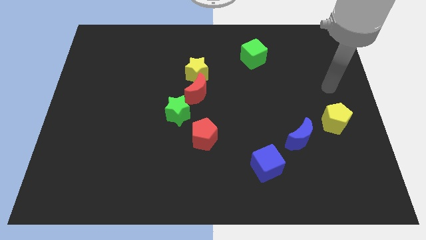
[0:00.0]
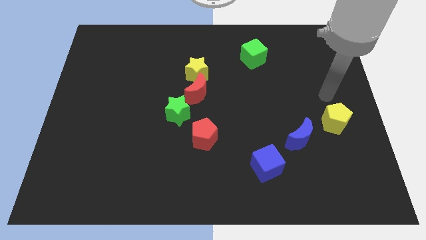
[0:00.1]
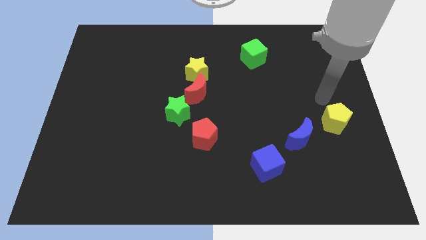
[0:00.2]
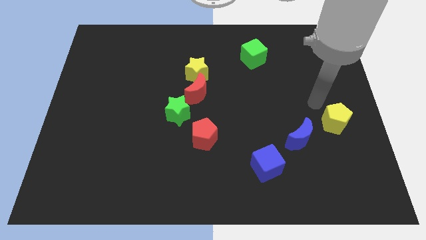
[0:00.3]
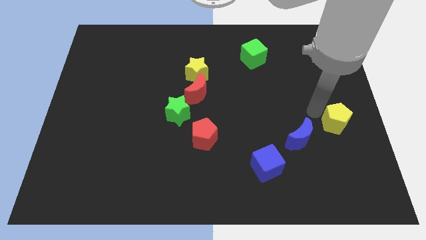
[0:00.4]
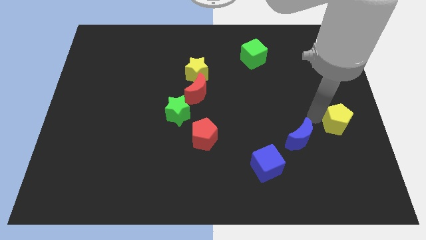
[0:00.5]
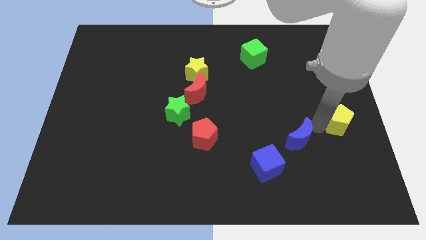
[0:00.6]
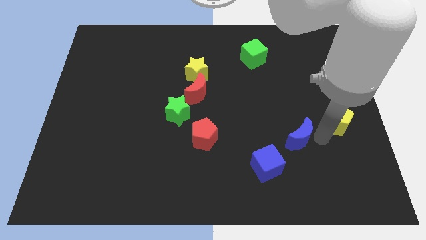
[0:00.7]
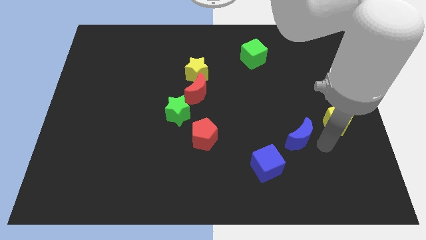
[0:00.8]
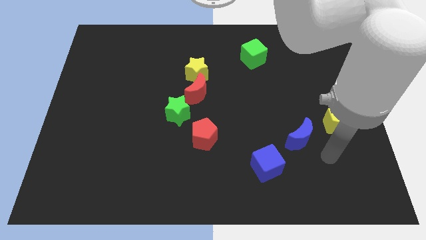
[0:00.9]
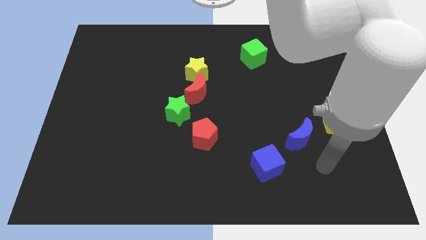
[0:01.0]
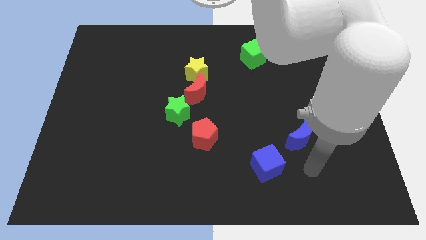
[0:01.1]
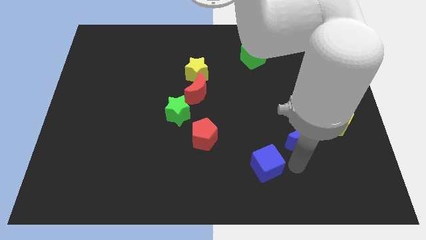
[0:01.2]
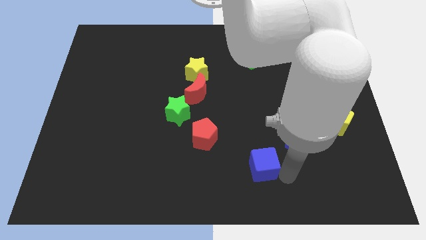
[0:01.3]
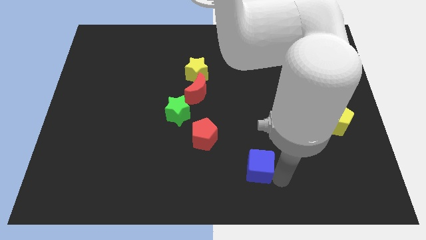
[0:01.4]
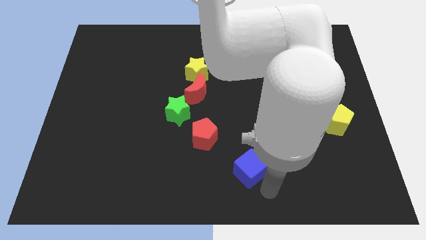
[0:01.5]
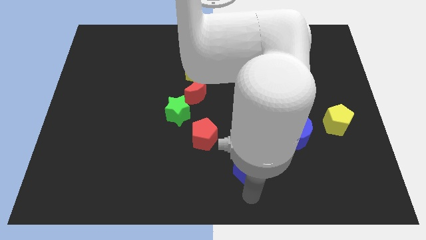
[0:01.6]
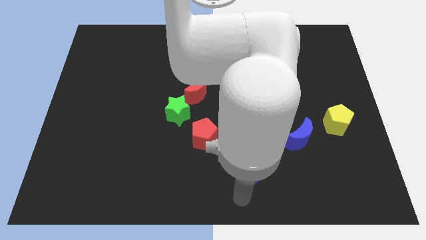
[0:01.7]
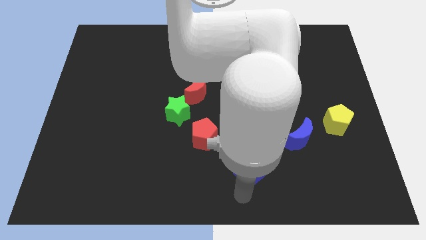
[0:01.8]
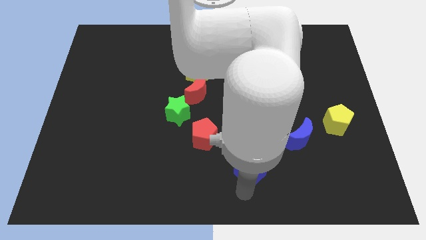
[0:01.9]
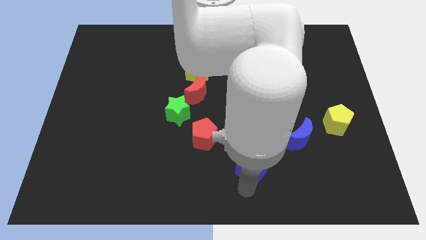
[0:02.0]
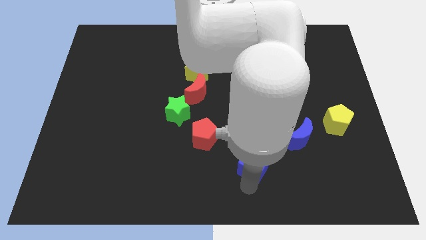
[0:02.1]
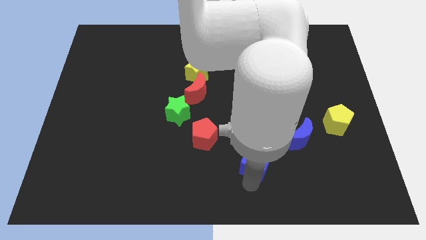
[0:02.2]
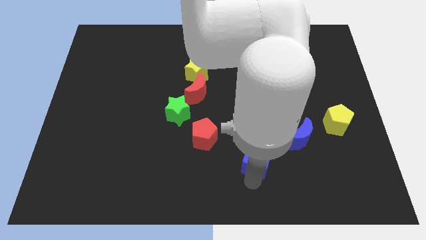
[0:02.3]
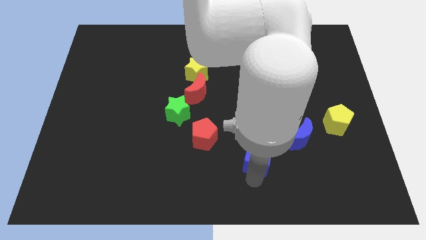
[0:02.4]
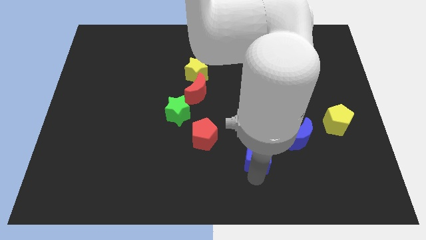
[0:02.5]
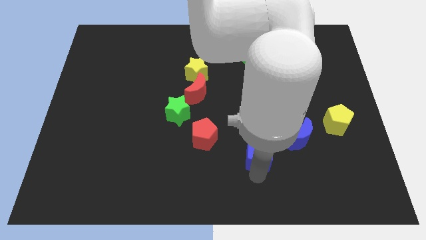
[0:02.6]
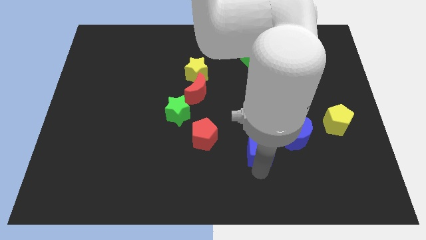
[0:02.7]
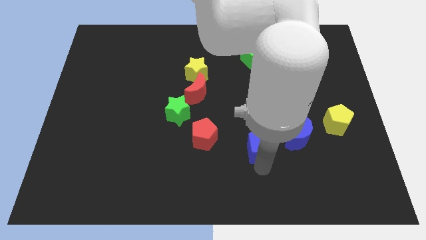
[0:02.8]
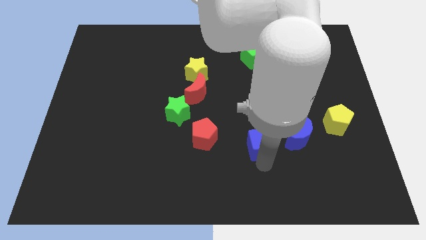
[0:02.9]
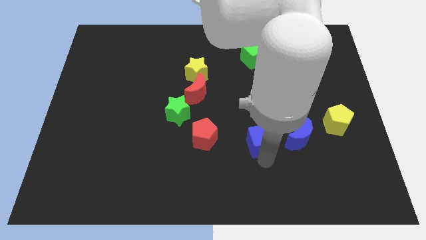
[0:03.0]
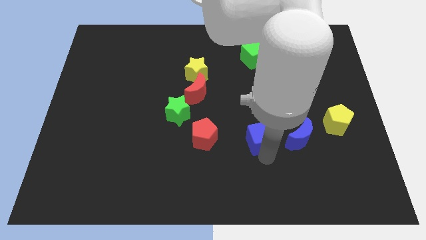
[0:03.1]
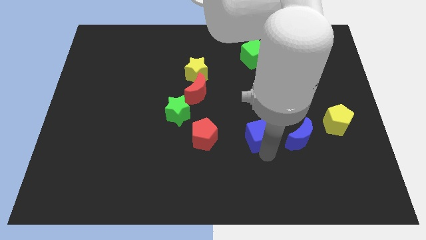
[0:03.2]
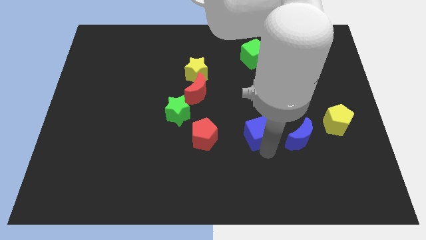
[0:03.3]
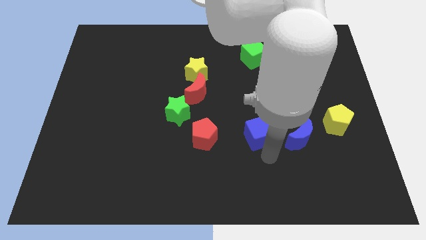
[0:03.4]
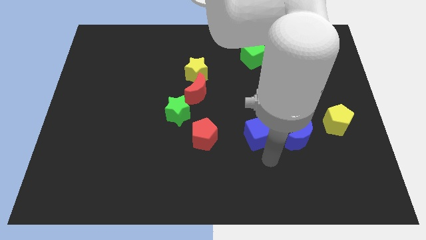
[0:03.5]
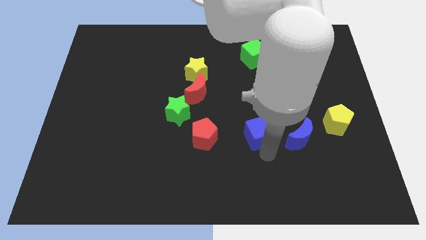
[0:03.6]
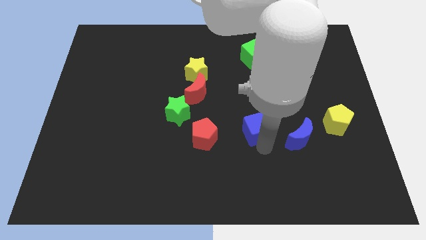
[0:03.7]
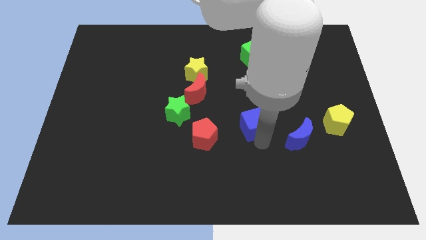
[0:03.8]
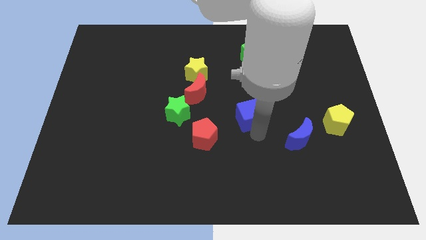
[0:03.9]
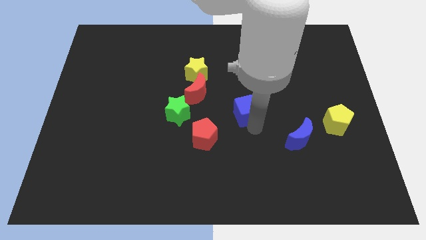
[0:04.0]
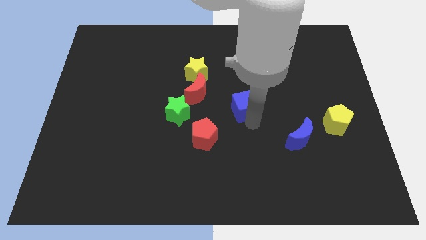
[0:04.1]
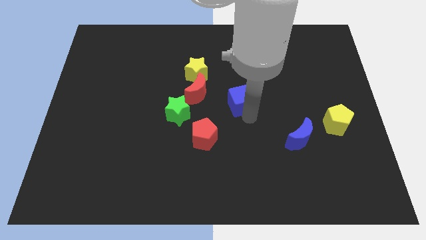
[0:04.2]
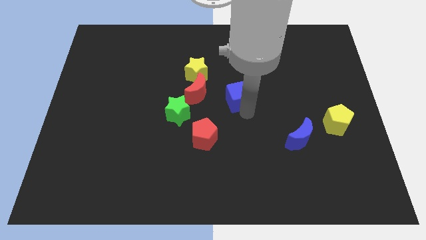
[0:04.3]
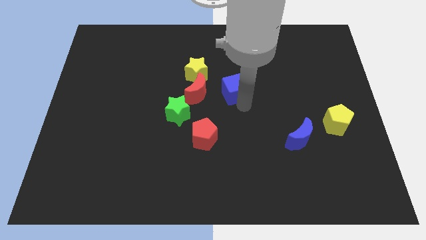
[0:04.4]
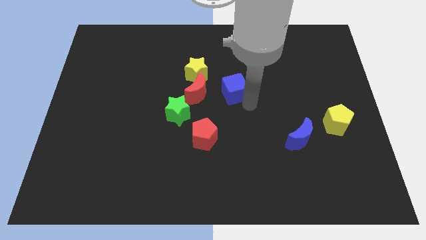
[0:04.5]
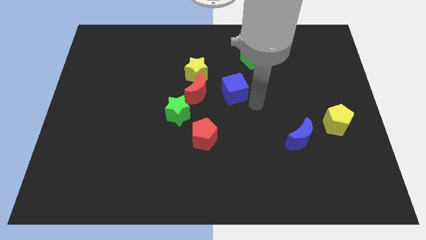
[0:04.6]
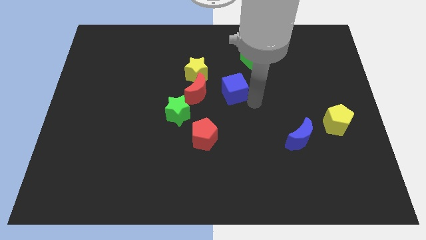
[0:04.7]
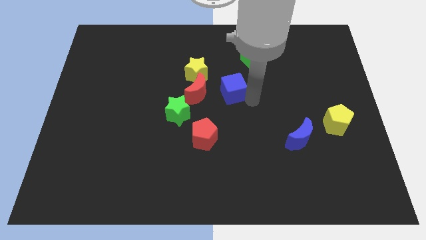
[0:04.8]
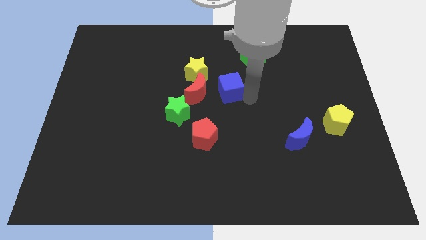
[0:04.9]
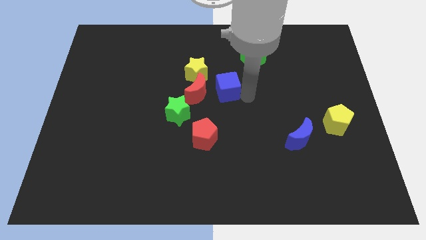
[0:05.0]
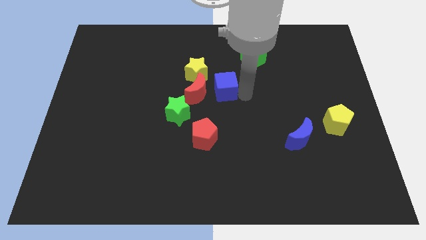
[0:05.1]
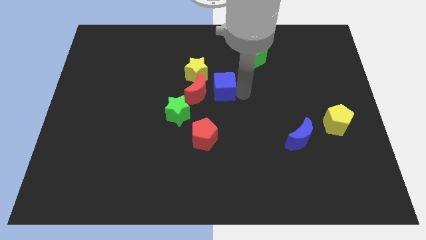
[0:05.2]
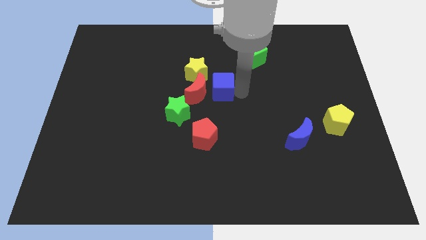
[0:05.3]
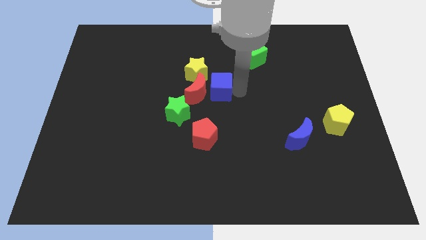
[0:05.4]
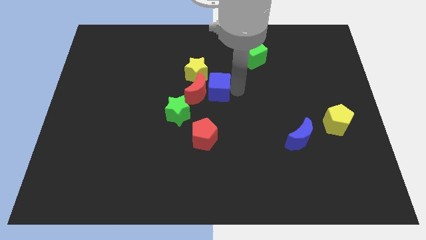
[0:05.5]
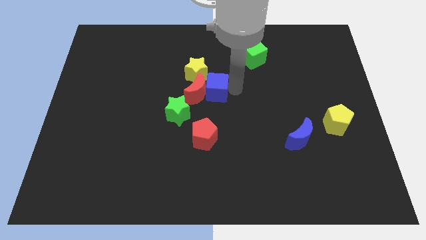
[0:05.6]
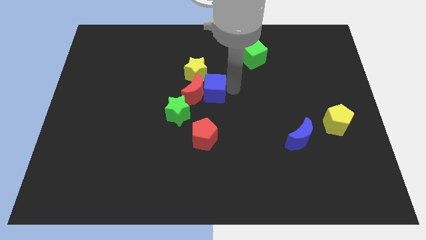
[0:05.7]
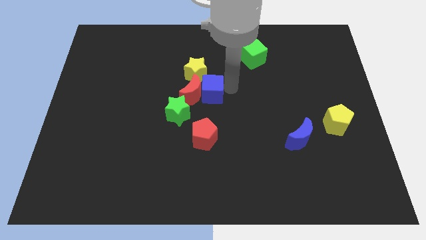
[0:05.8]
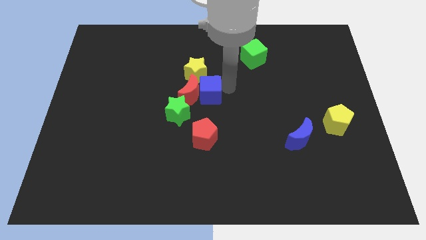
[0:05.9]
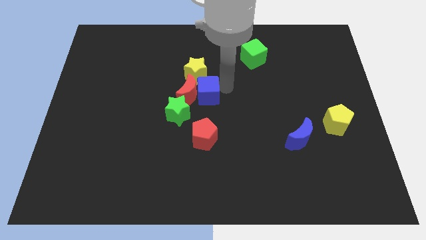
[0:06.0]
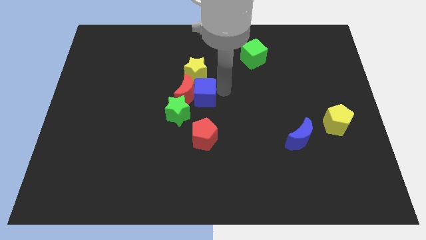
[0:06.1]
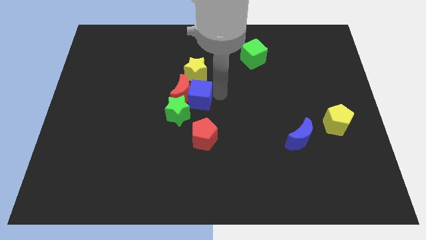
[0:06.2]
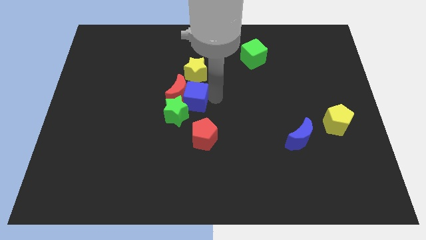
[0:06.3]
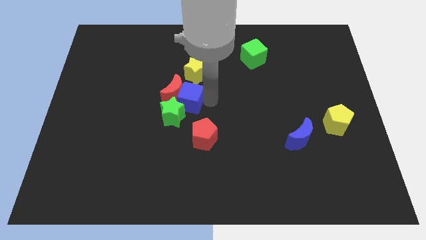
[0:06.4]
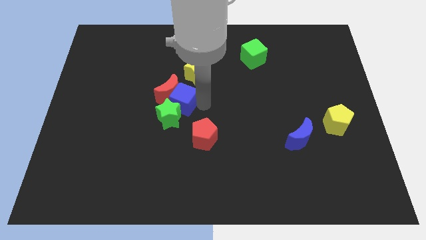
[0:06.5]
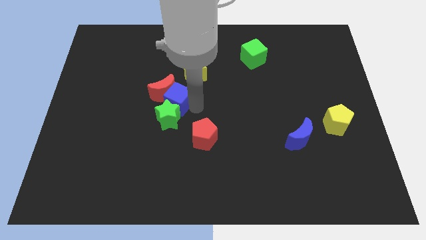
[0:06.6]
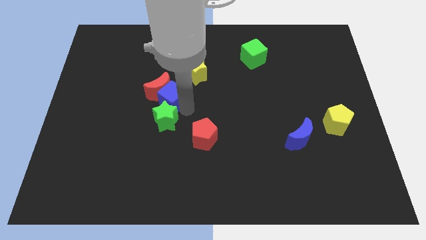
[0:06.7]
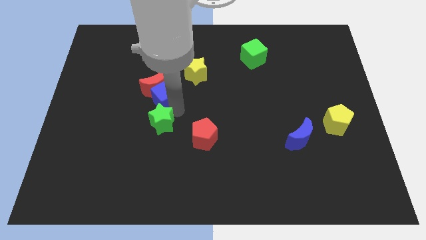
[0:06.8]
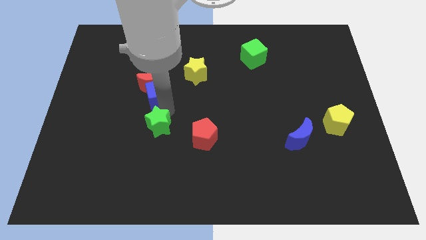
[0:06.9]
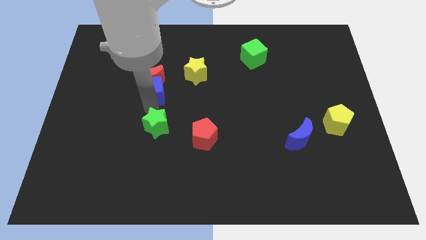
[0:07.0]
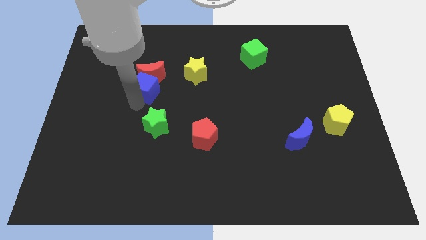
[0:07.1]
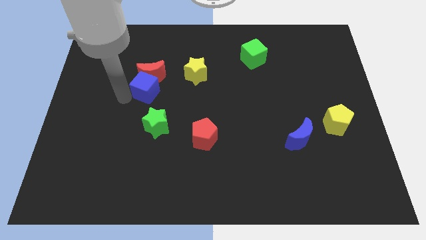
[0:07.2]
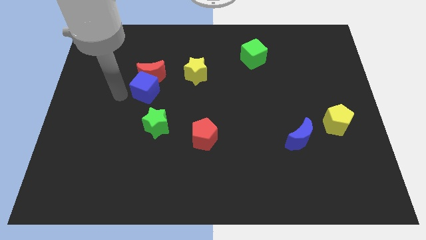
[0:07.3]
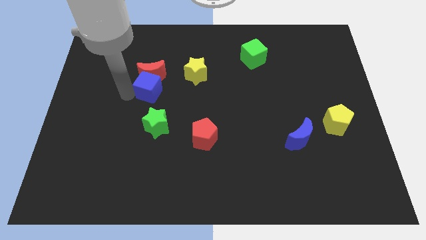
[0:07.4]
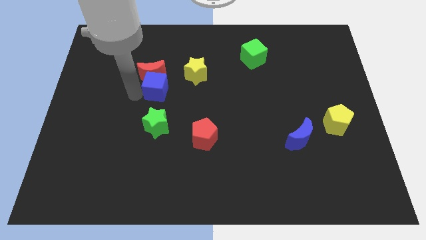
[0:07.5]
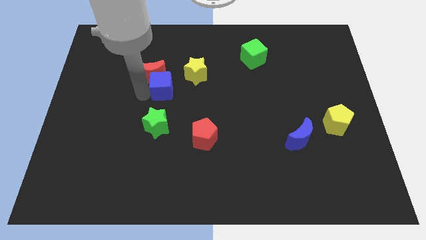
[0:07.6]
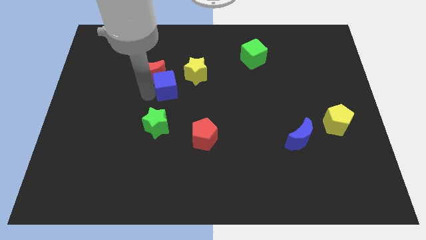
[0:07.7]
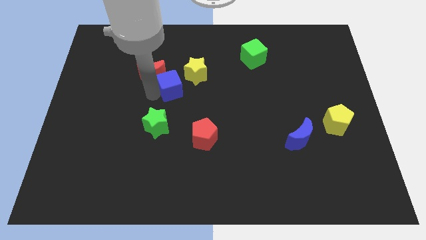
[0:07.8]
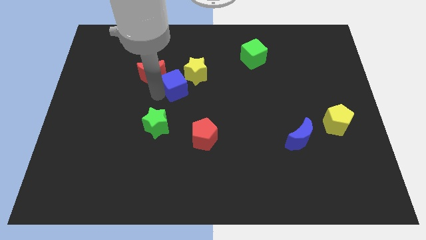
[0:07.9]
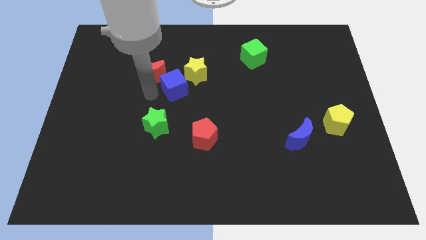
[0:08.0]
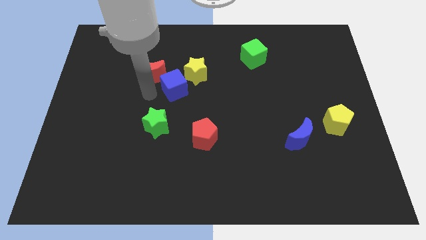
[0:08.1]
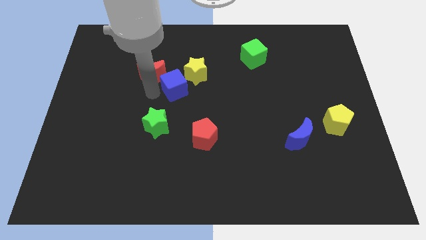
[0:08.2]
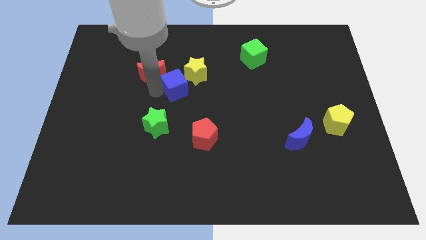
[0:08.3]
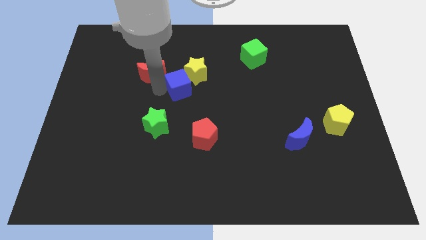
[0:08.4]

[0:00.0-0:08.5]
slide the blue cube to the yellow star

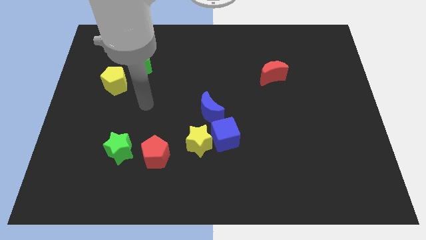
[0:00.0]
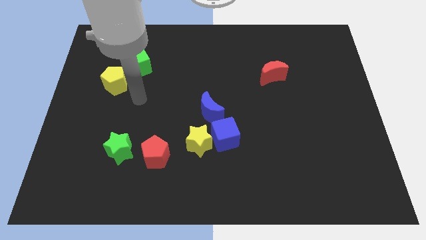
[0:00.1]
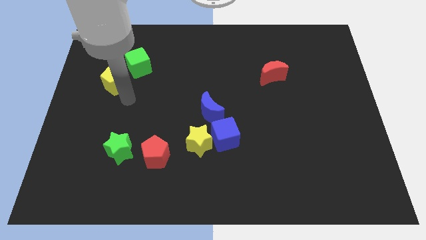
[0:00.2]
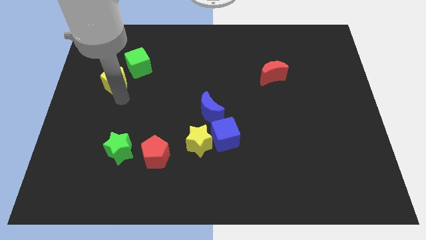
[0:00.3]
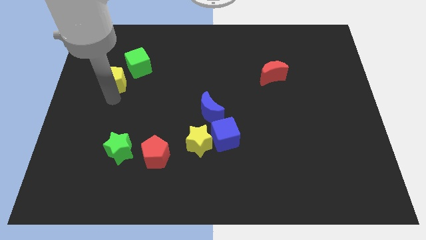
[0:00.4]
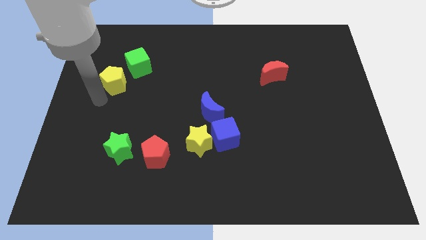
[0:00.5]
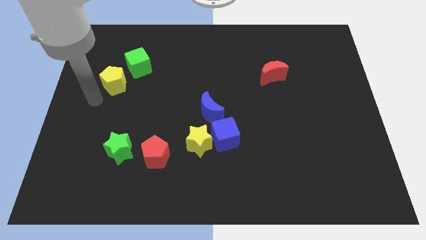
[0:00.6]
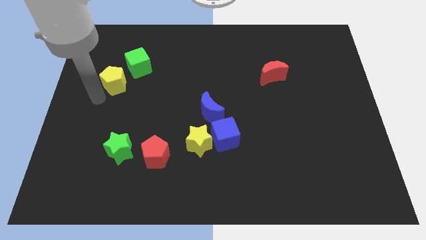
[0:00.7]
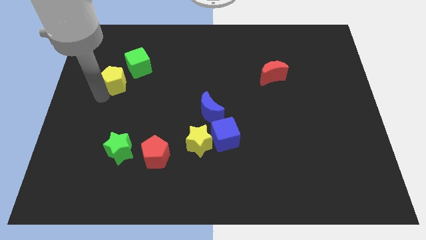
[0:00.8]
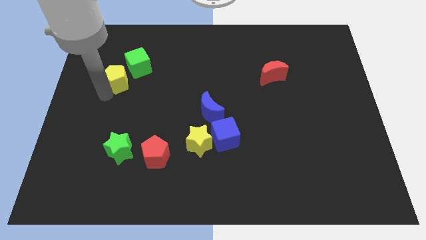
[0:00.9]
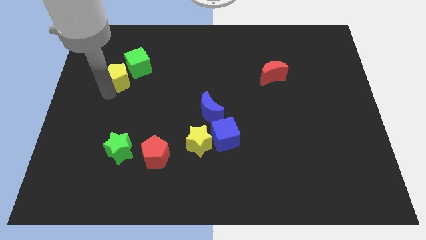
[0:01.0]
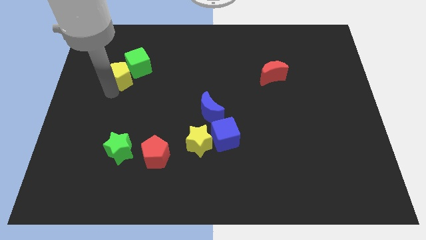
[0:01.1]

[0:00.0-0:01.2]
push the yellow pentagon close to the green cube
